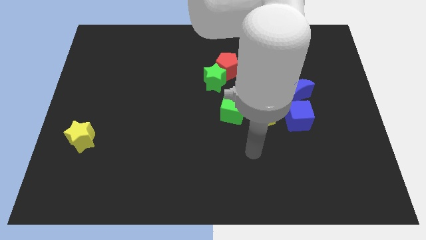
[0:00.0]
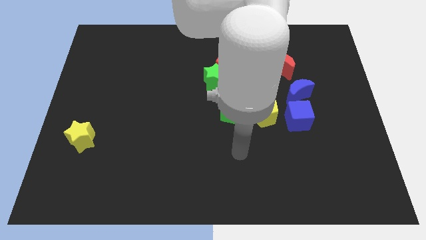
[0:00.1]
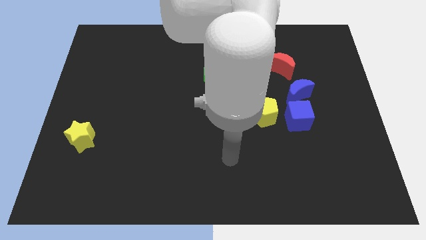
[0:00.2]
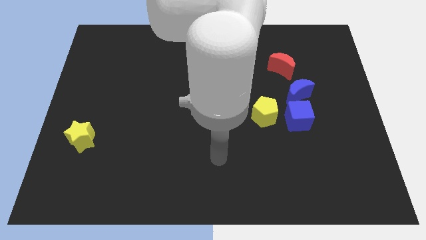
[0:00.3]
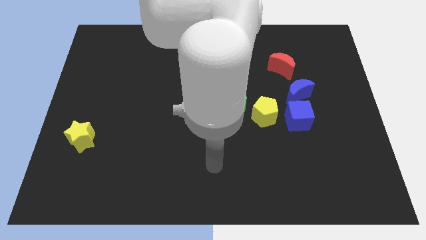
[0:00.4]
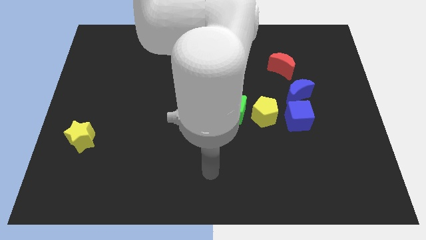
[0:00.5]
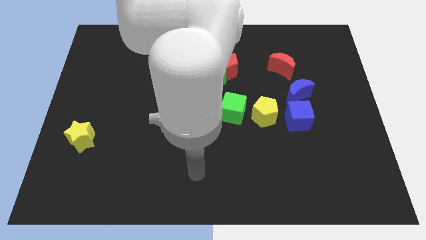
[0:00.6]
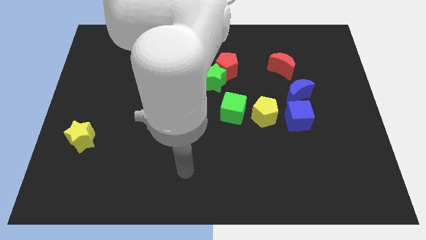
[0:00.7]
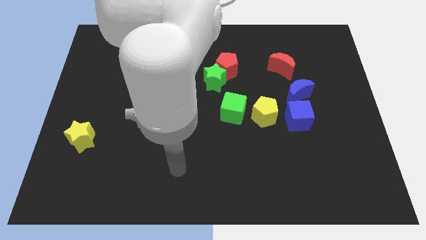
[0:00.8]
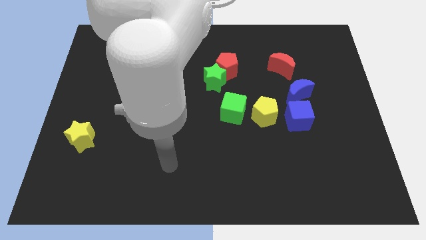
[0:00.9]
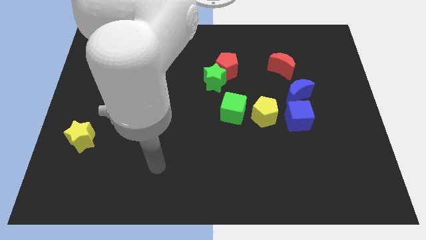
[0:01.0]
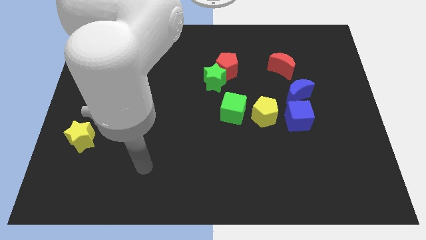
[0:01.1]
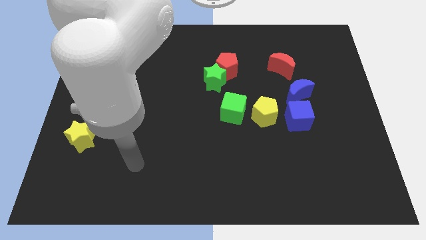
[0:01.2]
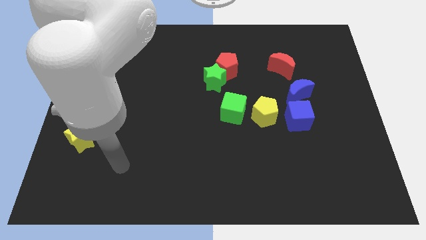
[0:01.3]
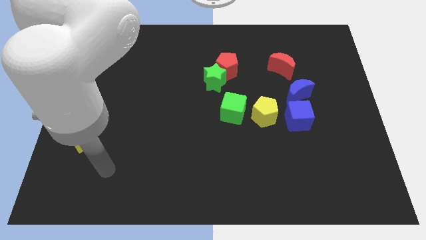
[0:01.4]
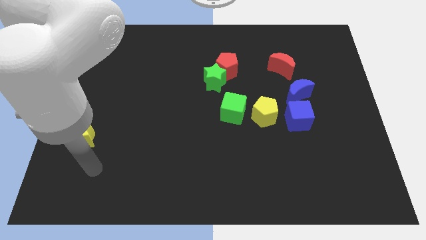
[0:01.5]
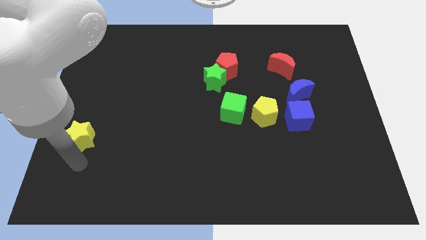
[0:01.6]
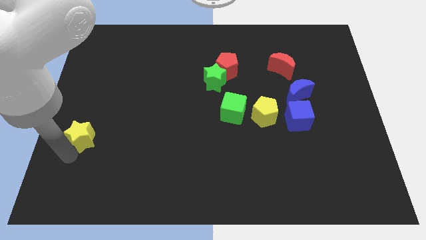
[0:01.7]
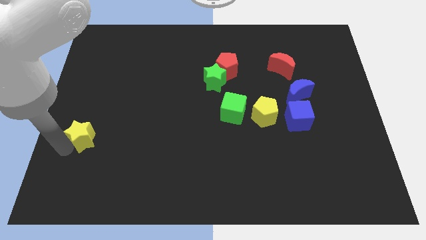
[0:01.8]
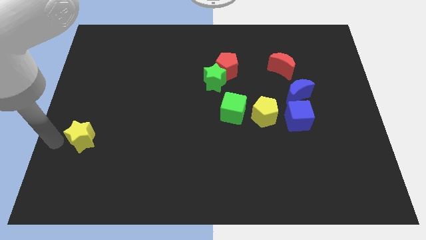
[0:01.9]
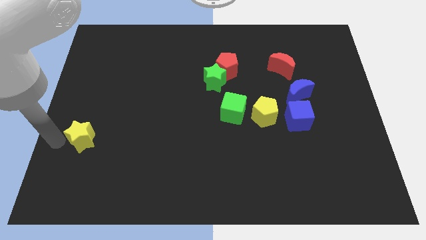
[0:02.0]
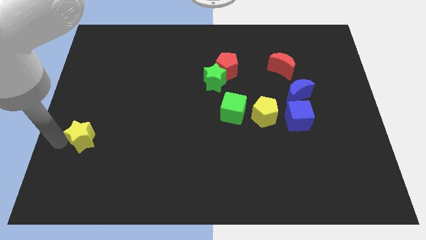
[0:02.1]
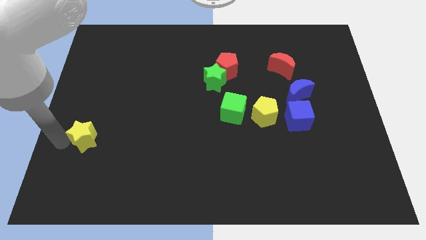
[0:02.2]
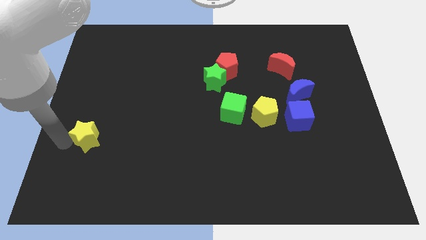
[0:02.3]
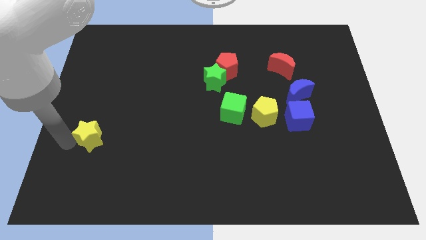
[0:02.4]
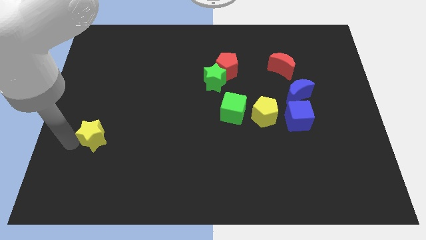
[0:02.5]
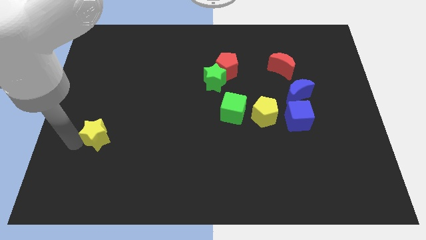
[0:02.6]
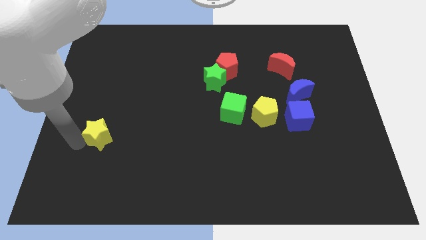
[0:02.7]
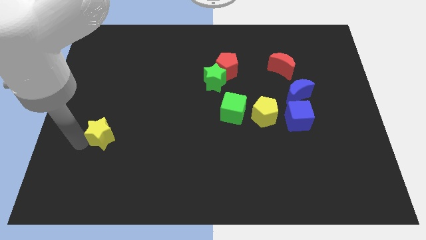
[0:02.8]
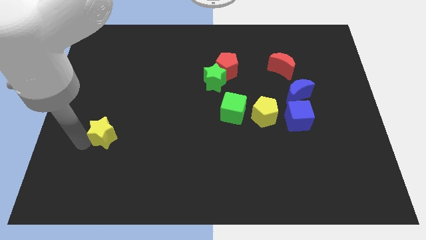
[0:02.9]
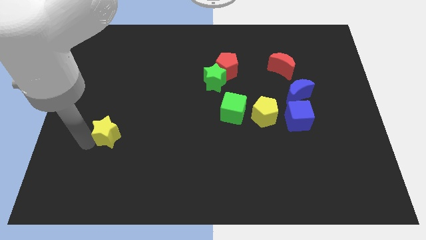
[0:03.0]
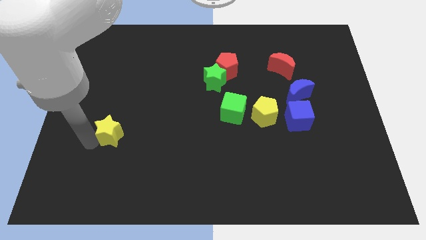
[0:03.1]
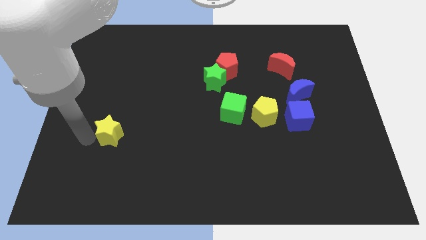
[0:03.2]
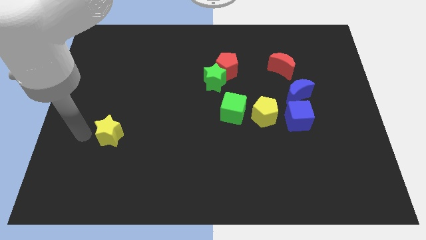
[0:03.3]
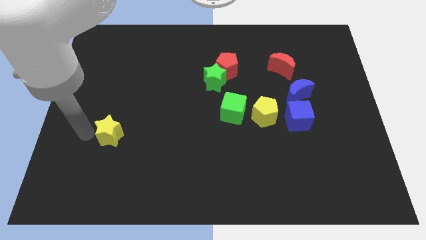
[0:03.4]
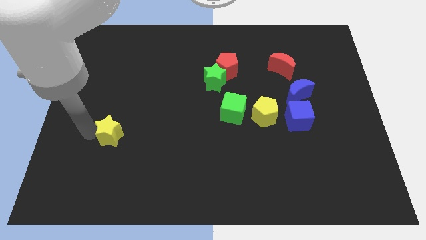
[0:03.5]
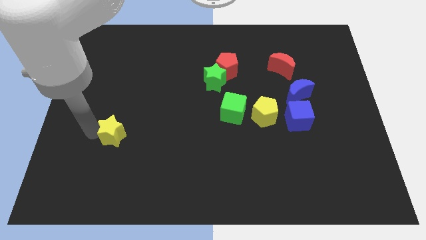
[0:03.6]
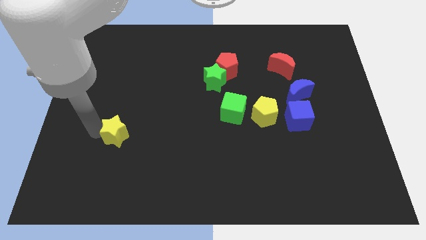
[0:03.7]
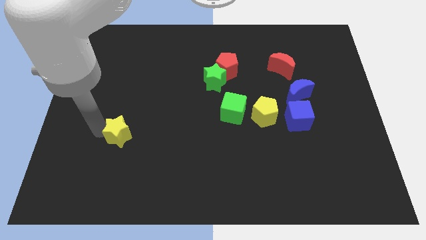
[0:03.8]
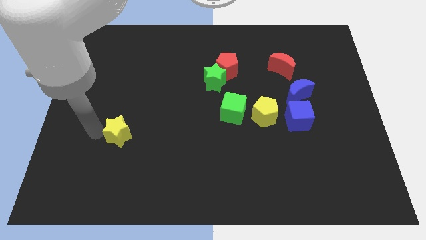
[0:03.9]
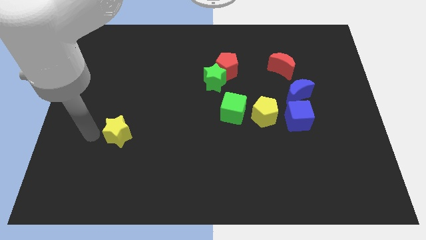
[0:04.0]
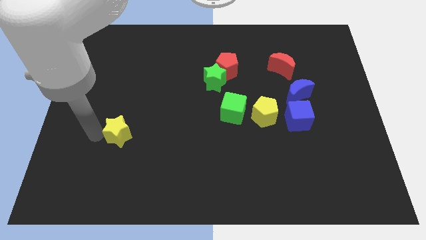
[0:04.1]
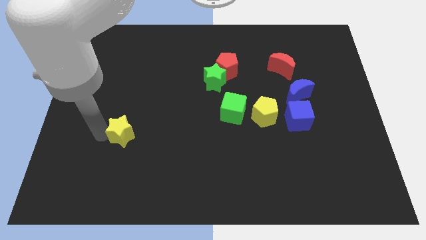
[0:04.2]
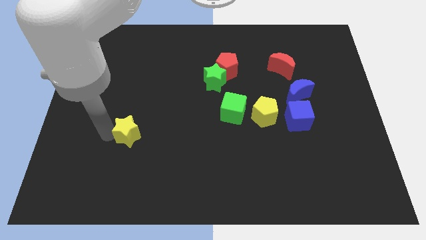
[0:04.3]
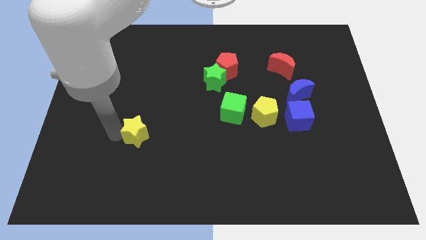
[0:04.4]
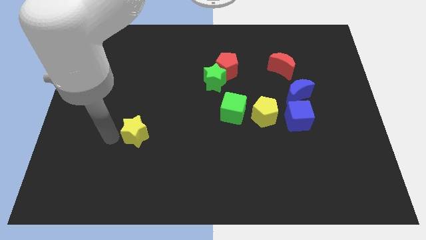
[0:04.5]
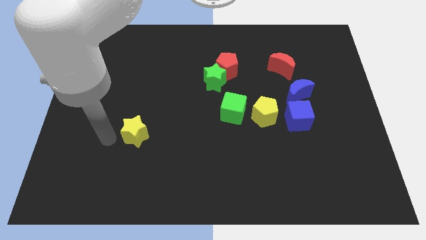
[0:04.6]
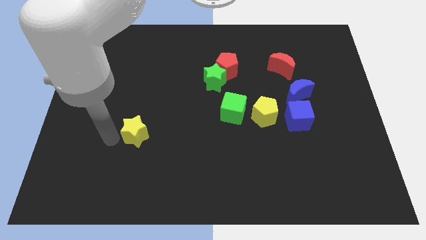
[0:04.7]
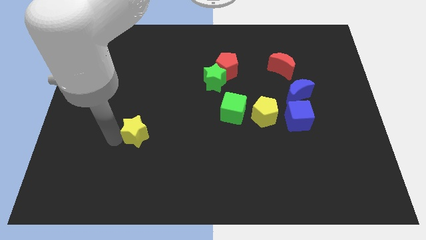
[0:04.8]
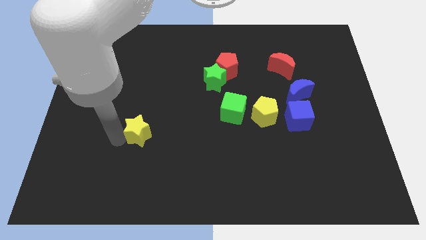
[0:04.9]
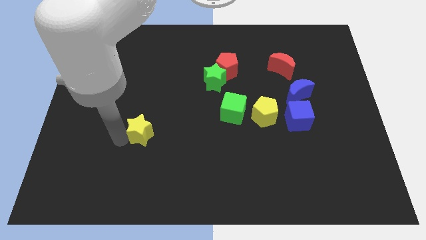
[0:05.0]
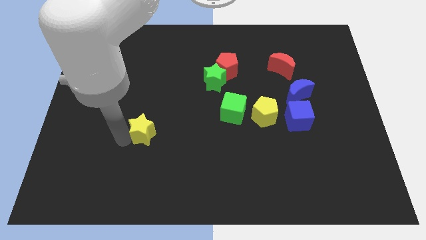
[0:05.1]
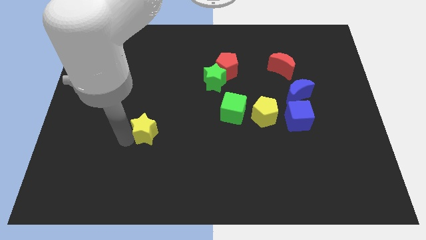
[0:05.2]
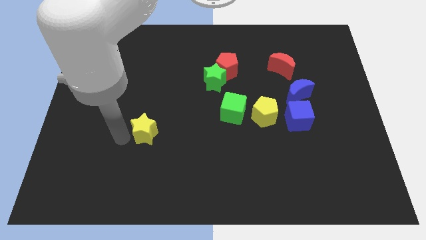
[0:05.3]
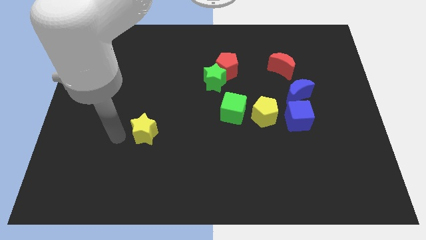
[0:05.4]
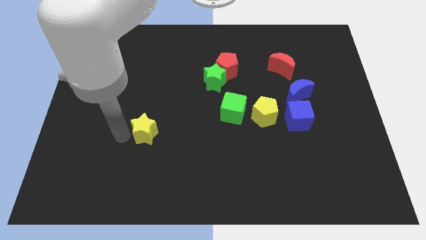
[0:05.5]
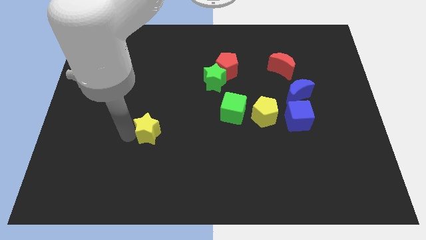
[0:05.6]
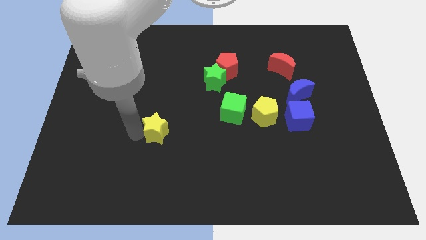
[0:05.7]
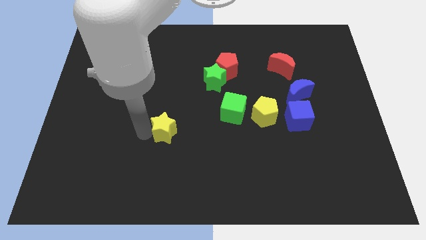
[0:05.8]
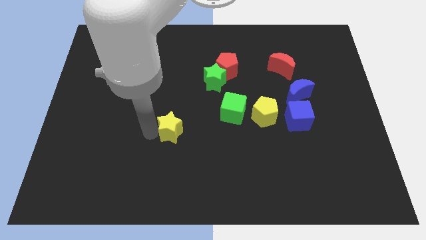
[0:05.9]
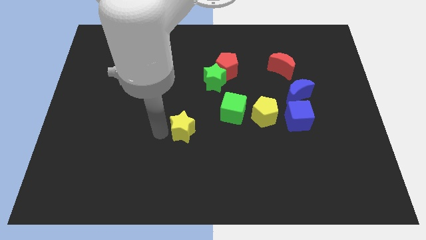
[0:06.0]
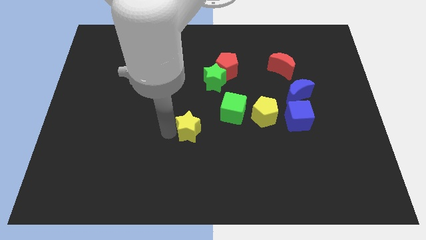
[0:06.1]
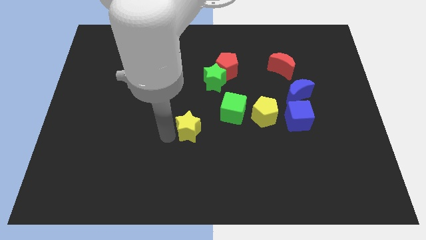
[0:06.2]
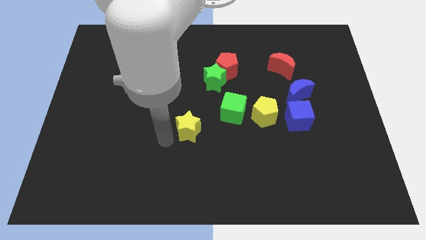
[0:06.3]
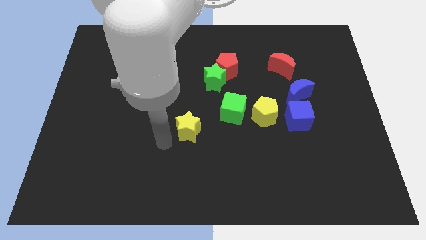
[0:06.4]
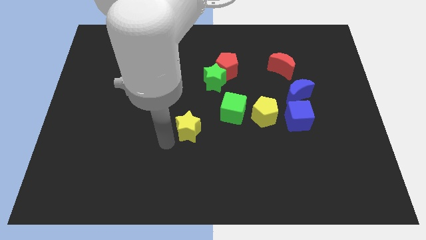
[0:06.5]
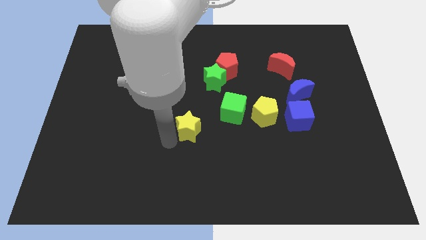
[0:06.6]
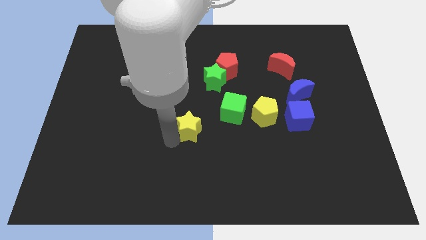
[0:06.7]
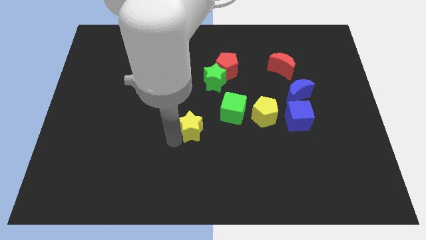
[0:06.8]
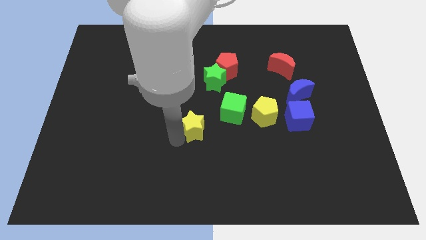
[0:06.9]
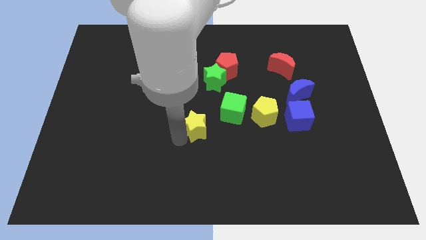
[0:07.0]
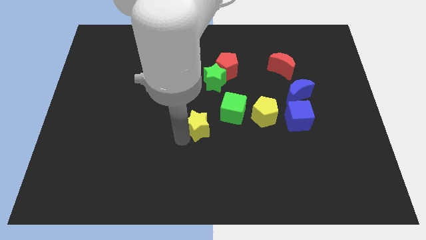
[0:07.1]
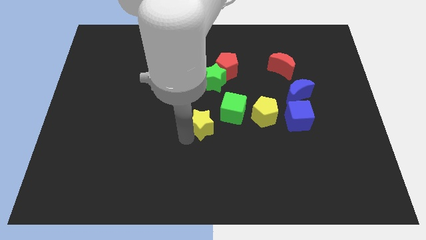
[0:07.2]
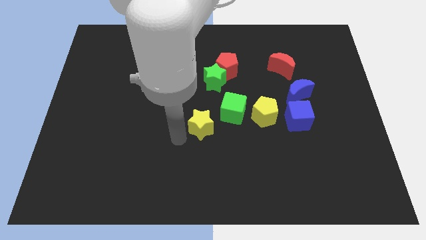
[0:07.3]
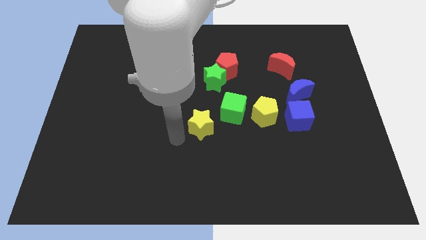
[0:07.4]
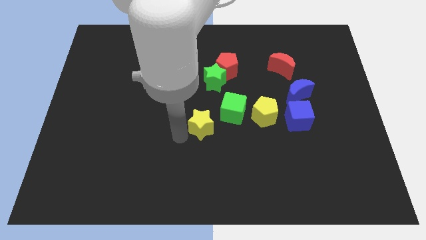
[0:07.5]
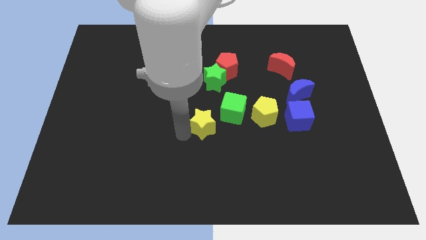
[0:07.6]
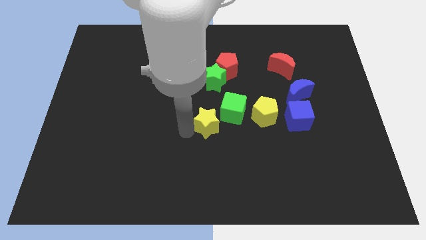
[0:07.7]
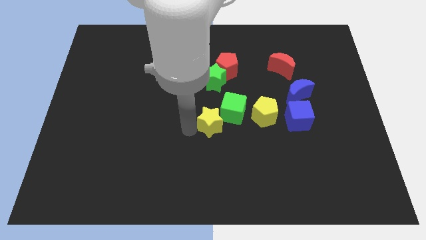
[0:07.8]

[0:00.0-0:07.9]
slide the yellow star to the green cube

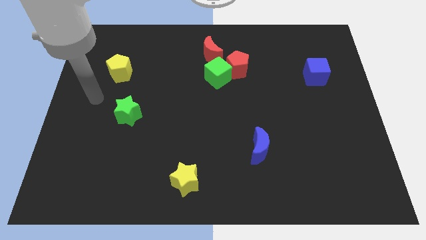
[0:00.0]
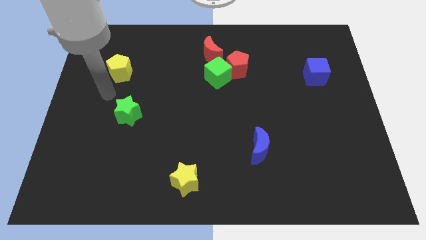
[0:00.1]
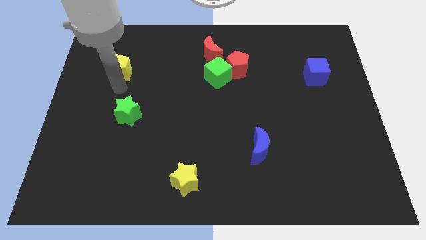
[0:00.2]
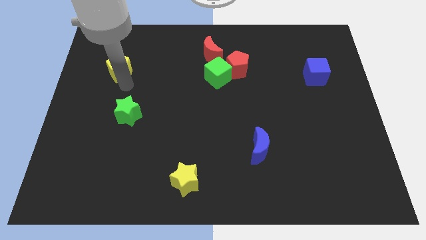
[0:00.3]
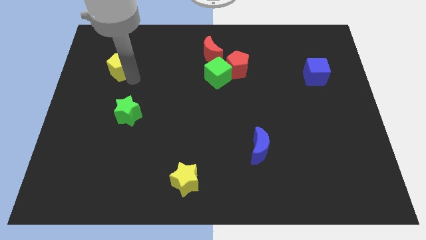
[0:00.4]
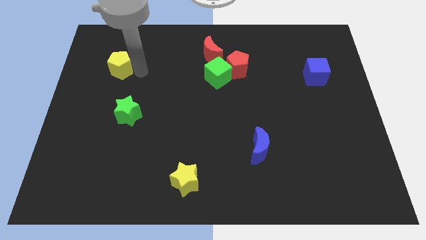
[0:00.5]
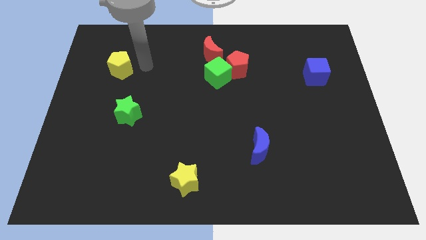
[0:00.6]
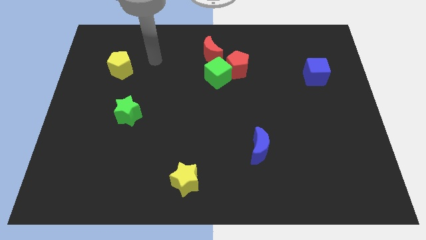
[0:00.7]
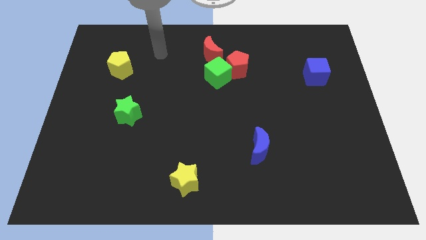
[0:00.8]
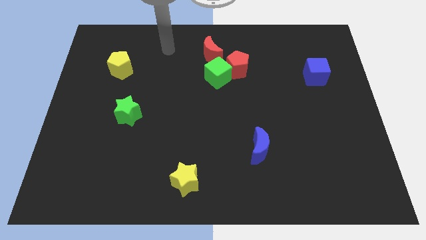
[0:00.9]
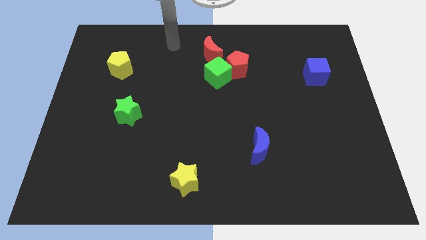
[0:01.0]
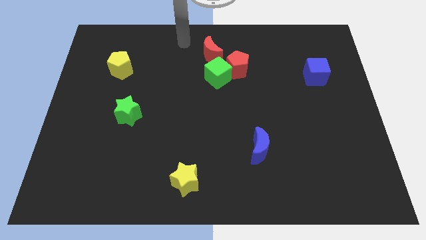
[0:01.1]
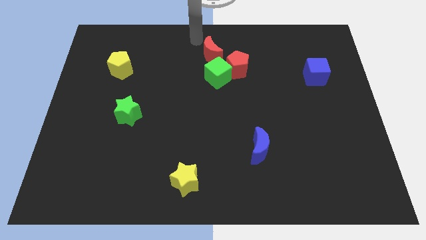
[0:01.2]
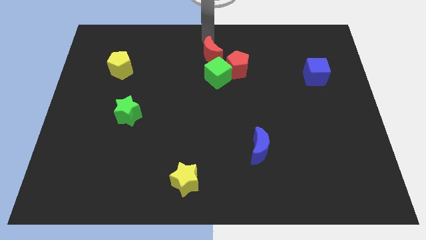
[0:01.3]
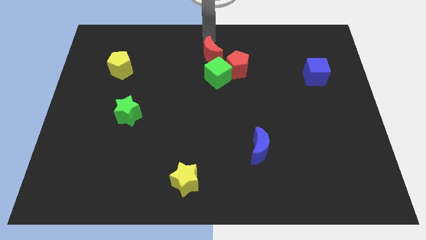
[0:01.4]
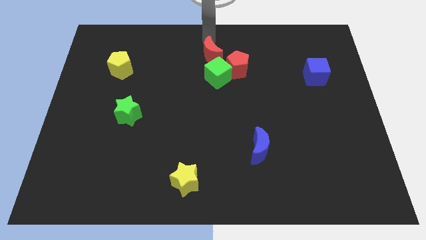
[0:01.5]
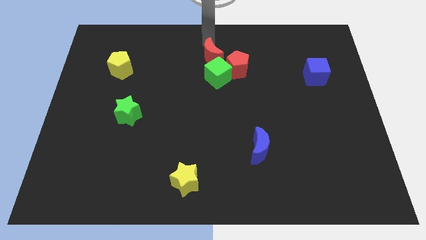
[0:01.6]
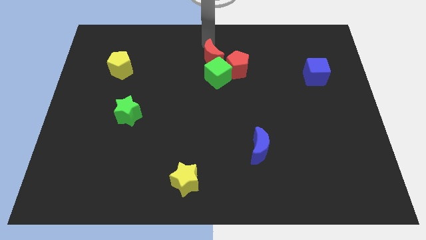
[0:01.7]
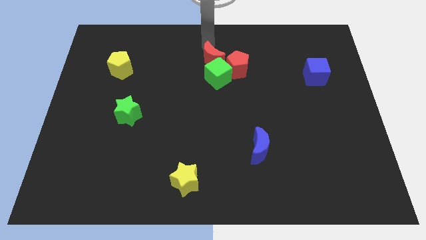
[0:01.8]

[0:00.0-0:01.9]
push the red moon to the green cube
